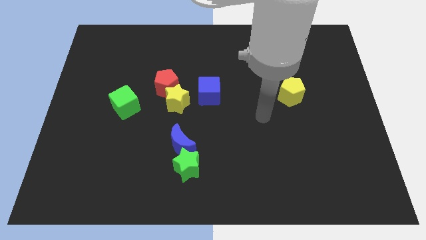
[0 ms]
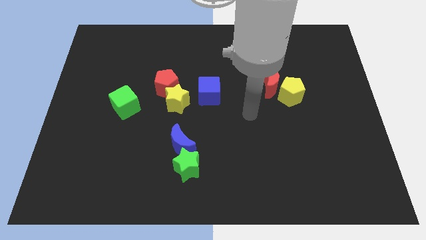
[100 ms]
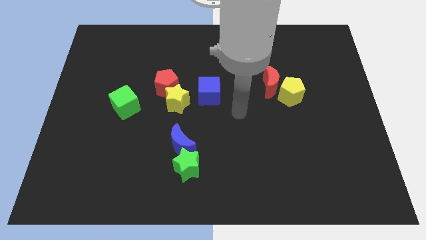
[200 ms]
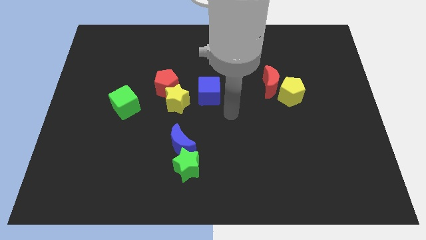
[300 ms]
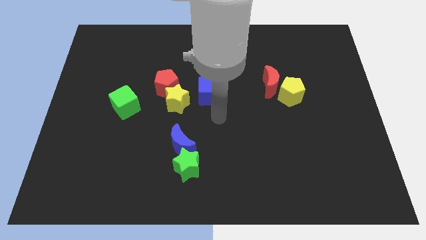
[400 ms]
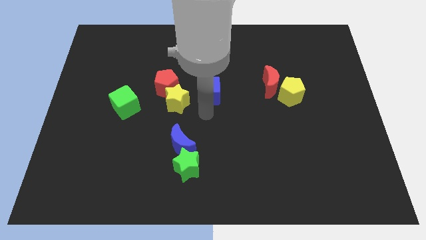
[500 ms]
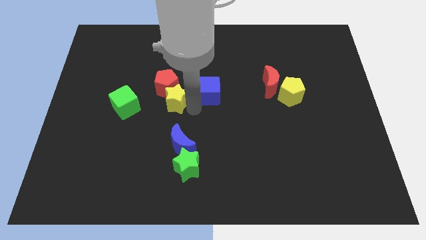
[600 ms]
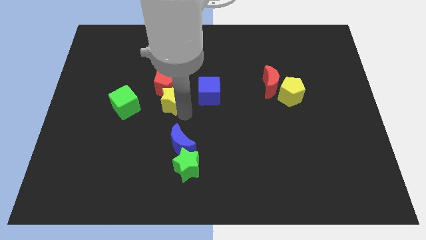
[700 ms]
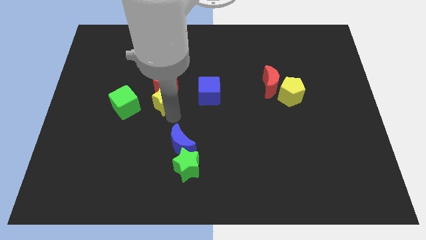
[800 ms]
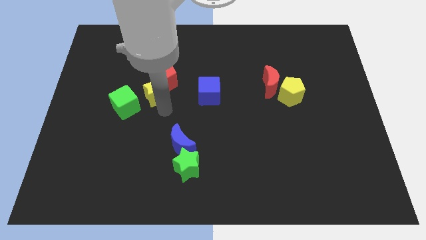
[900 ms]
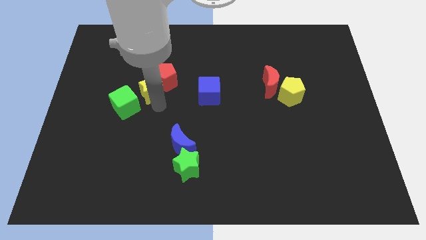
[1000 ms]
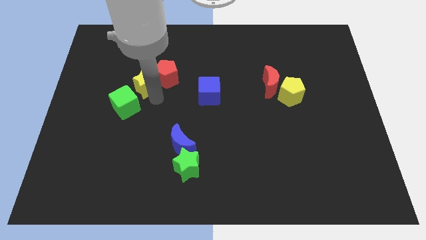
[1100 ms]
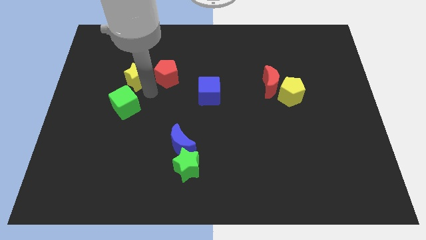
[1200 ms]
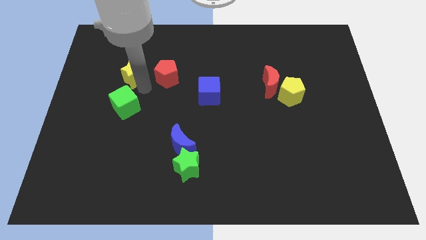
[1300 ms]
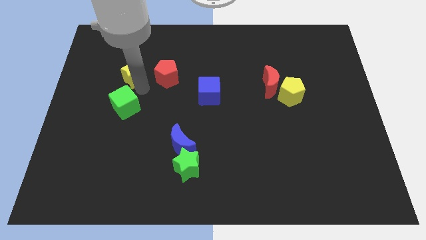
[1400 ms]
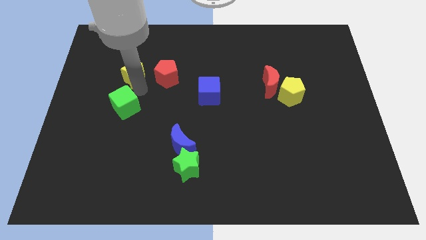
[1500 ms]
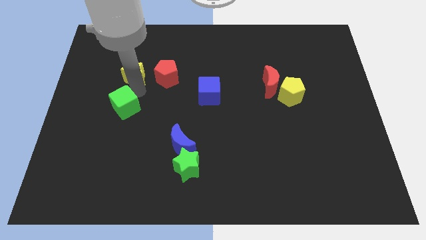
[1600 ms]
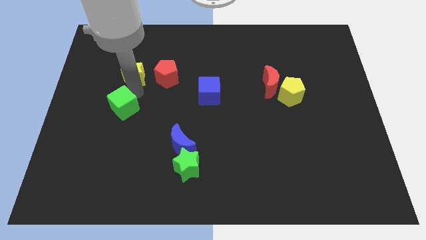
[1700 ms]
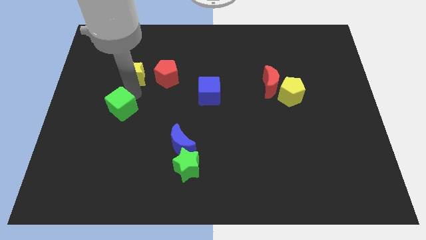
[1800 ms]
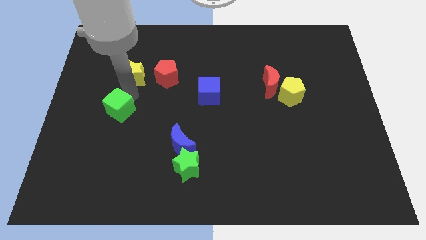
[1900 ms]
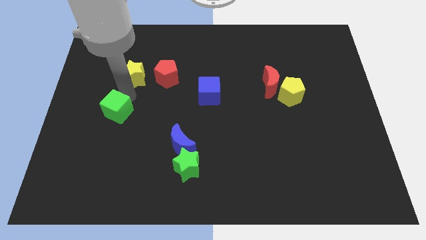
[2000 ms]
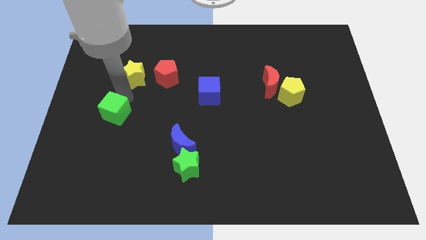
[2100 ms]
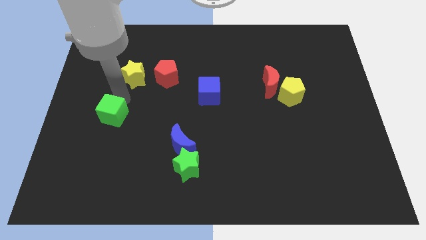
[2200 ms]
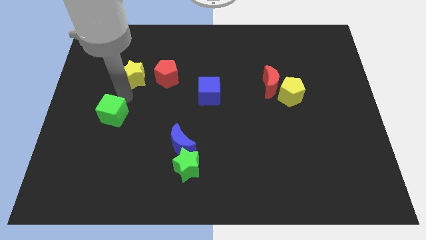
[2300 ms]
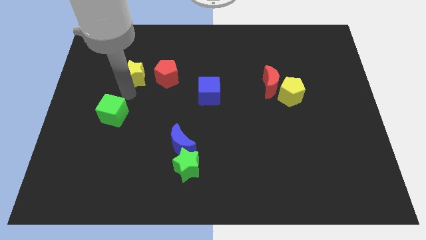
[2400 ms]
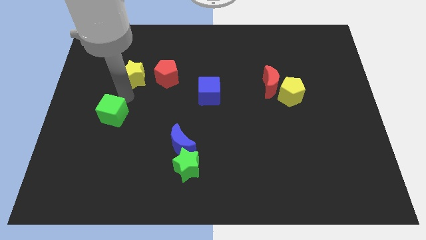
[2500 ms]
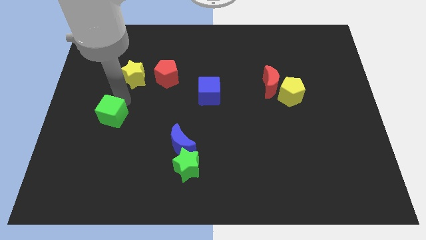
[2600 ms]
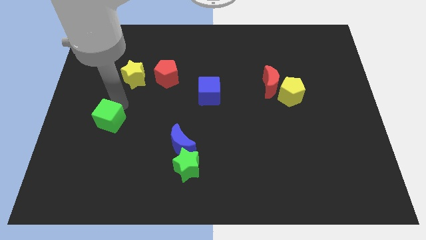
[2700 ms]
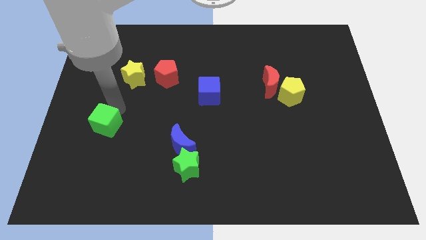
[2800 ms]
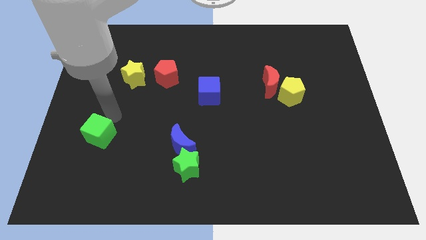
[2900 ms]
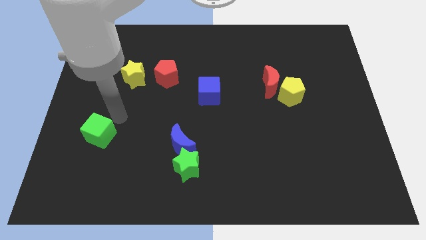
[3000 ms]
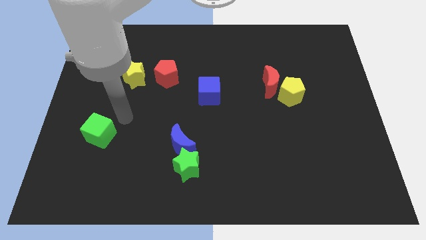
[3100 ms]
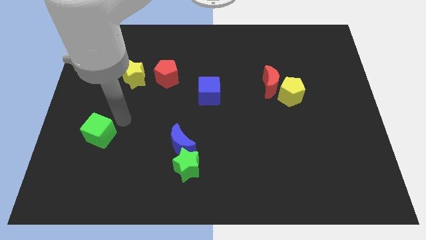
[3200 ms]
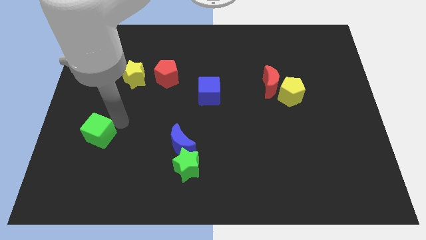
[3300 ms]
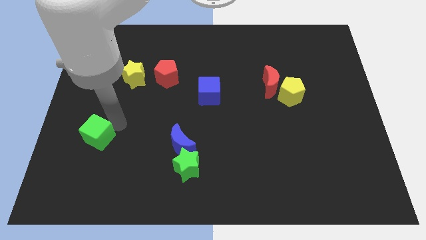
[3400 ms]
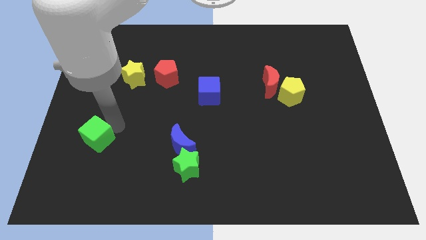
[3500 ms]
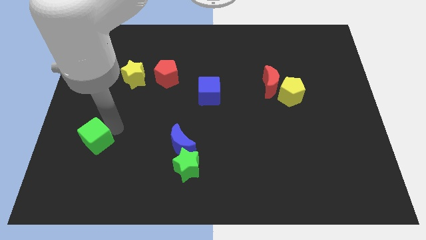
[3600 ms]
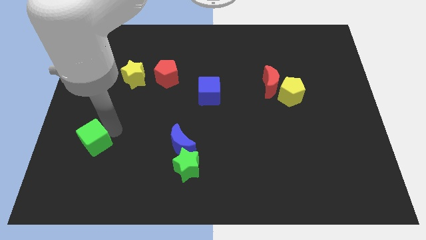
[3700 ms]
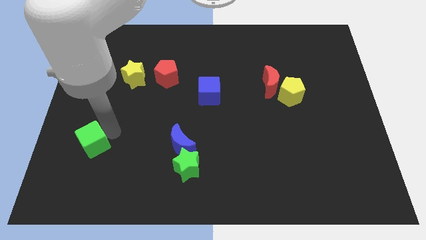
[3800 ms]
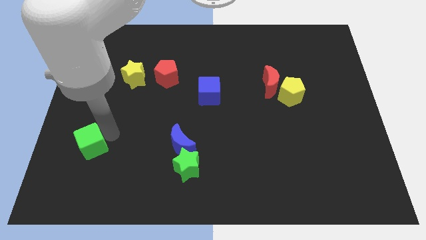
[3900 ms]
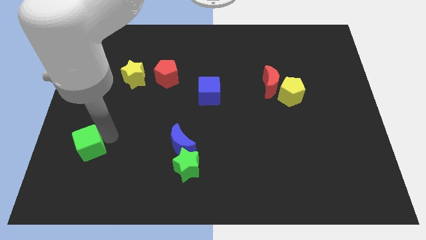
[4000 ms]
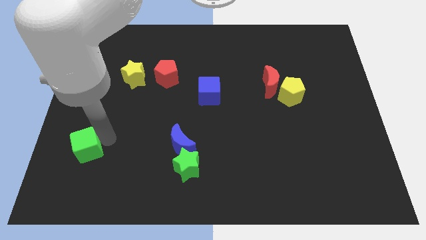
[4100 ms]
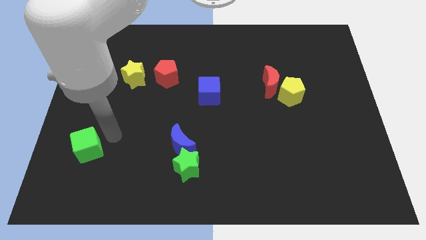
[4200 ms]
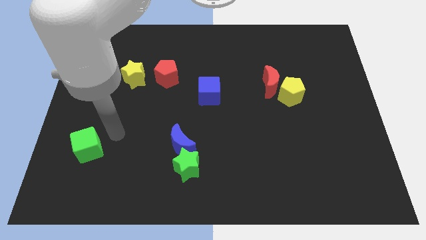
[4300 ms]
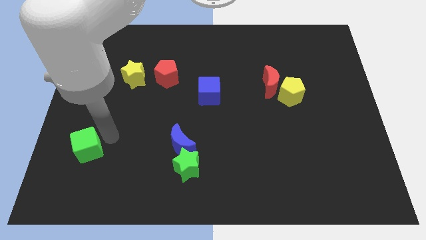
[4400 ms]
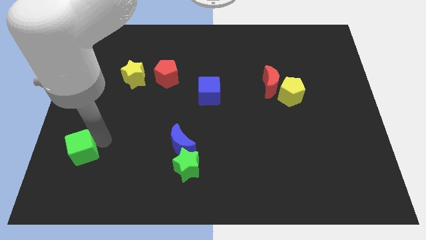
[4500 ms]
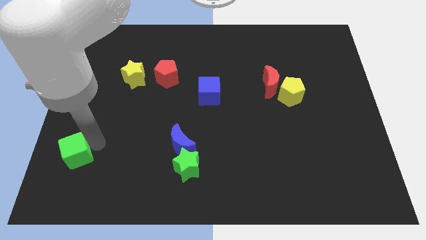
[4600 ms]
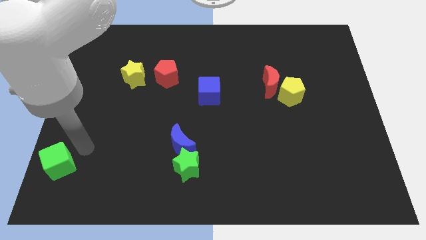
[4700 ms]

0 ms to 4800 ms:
push the green cube to the lower left corner

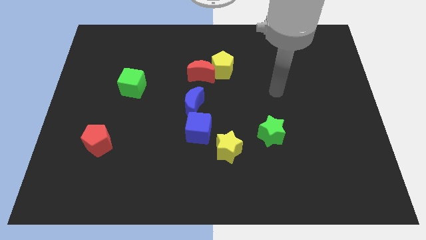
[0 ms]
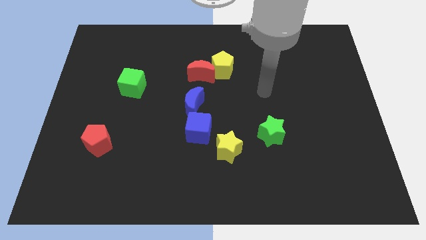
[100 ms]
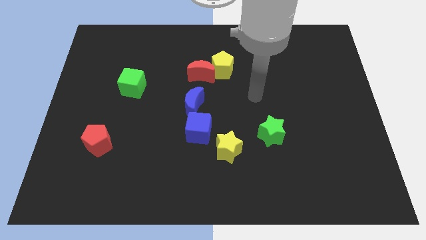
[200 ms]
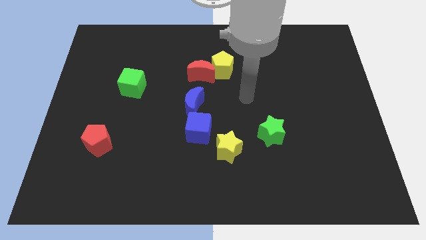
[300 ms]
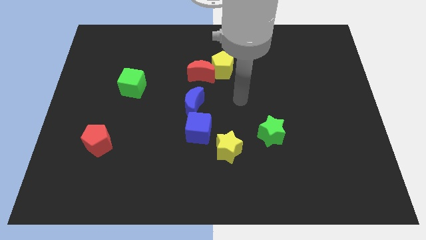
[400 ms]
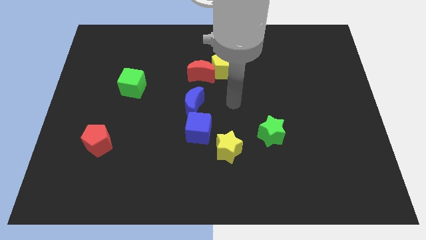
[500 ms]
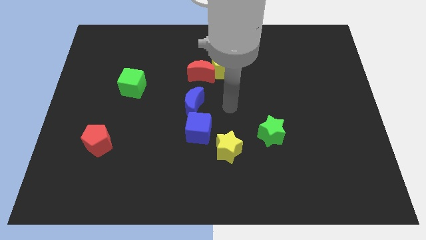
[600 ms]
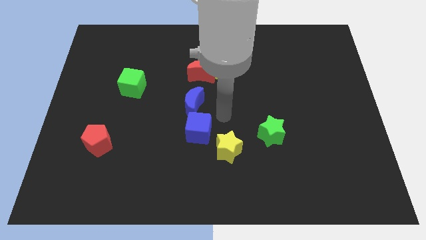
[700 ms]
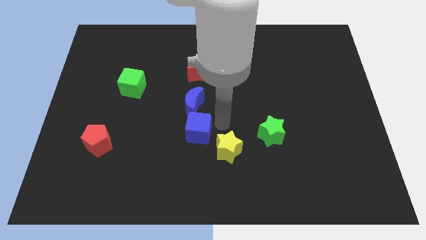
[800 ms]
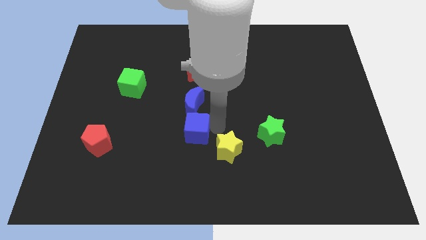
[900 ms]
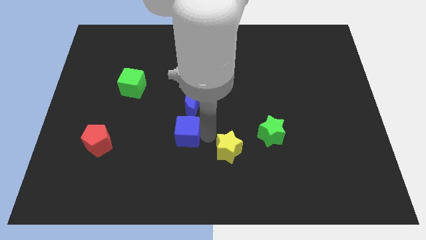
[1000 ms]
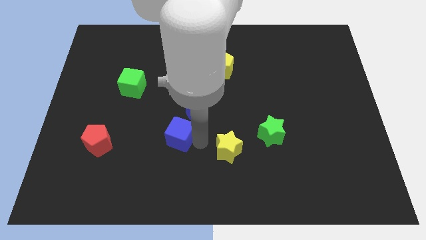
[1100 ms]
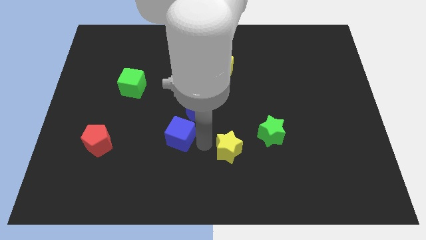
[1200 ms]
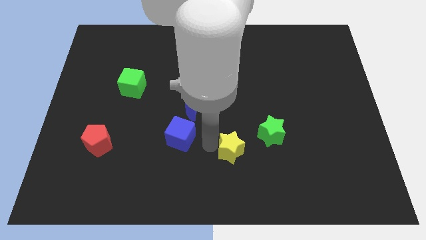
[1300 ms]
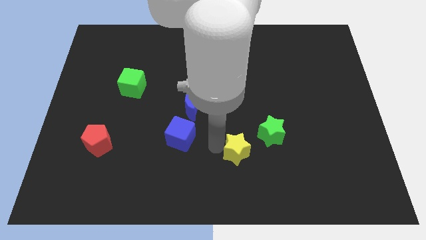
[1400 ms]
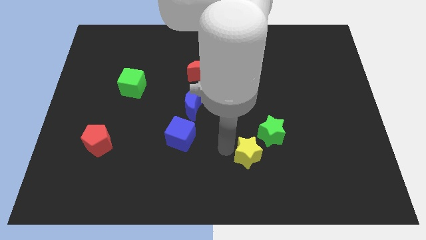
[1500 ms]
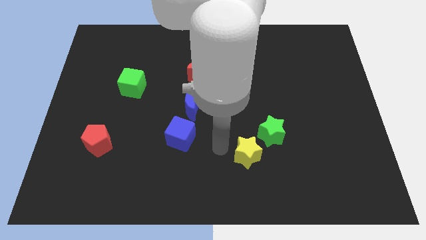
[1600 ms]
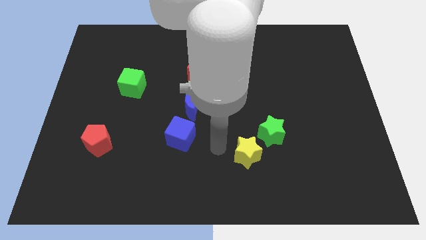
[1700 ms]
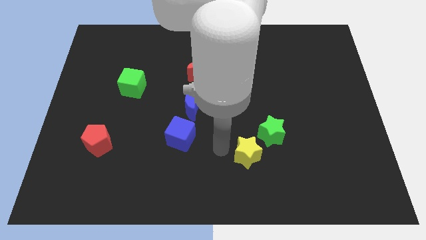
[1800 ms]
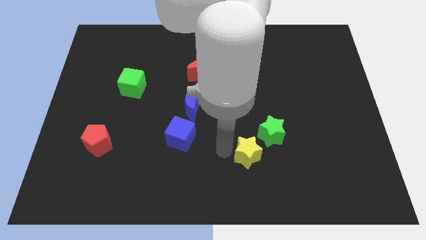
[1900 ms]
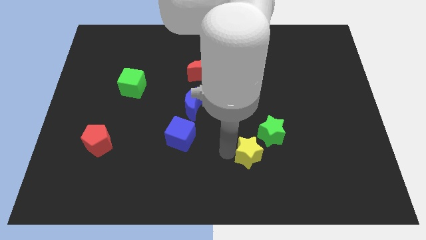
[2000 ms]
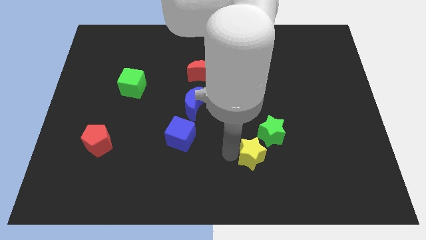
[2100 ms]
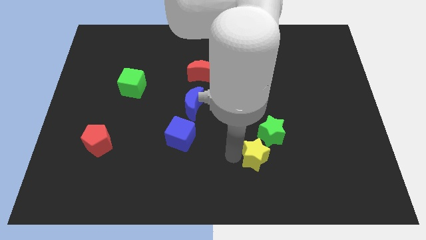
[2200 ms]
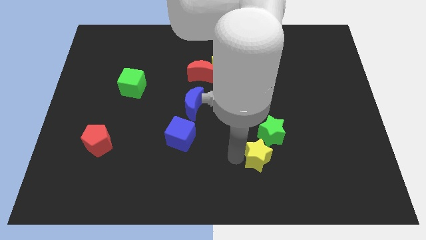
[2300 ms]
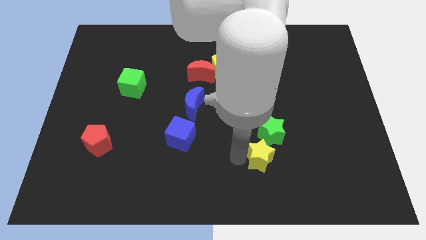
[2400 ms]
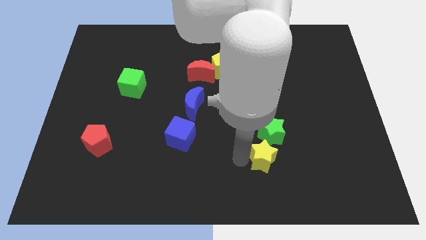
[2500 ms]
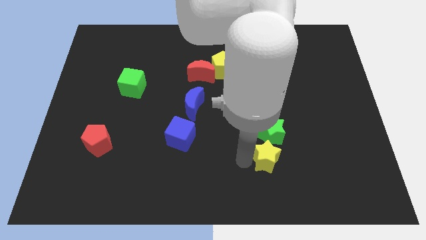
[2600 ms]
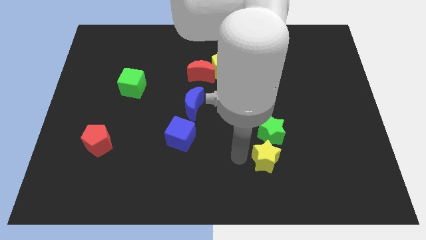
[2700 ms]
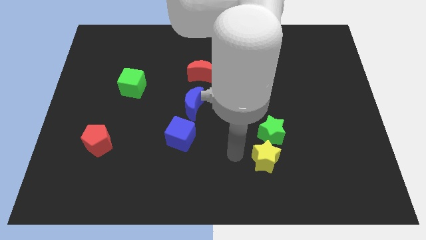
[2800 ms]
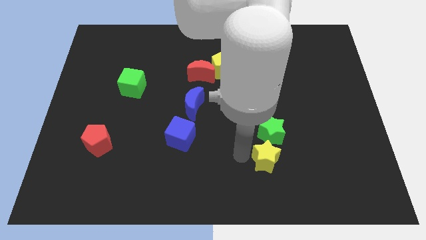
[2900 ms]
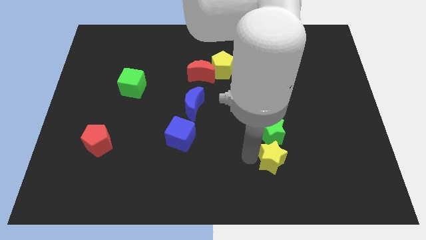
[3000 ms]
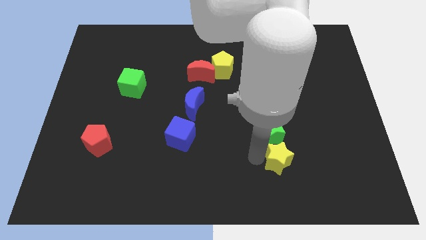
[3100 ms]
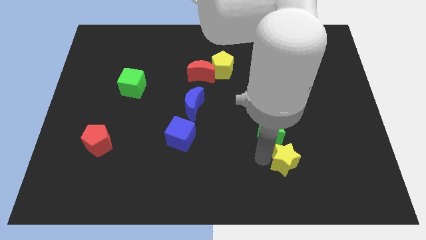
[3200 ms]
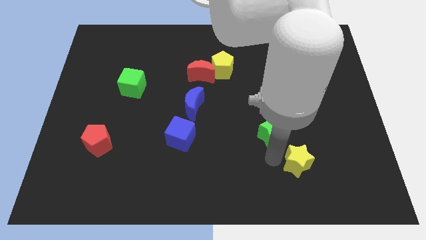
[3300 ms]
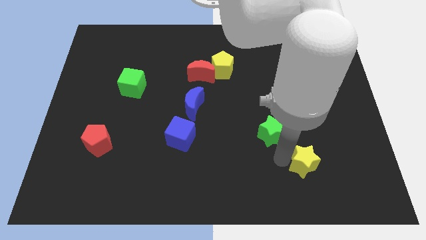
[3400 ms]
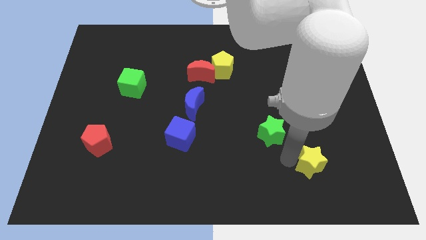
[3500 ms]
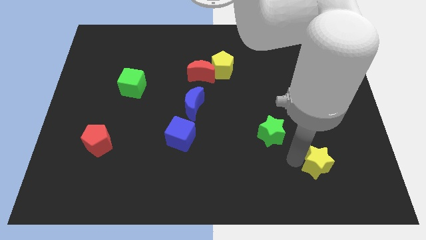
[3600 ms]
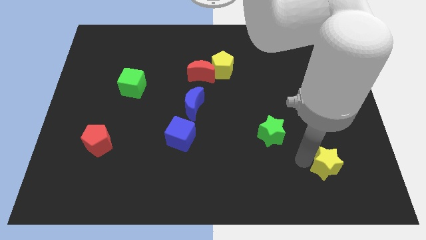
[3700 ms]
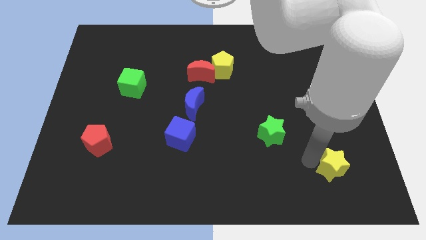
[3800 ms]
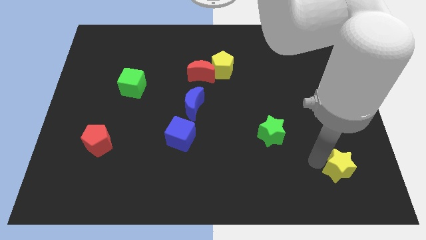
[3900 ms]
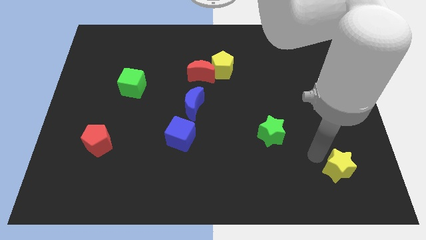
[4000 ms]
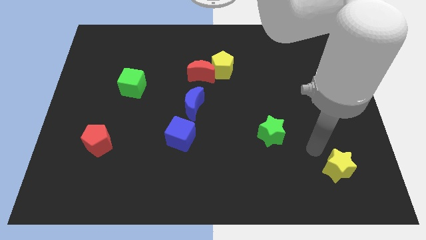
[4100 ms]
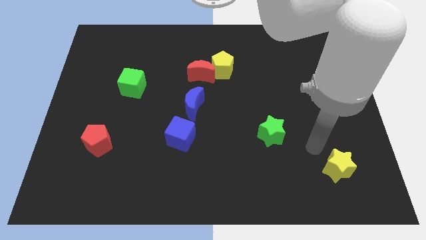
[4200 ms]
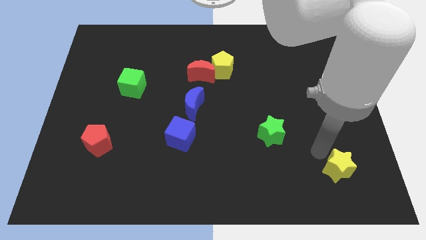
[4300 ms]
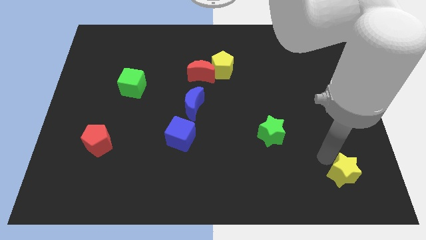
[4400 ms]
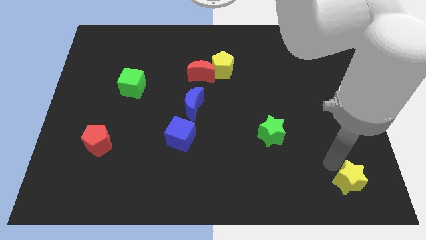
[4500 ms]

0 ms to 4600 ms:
push the yellow star to the bottom right
